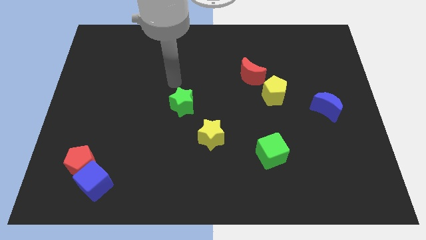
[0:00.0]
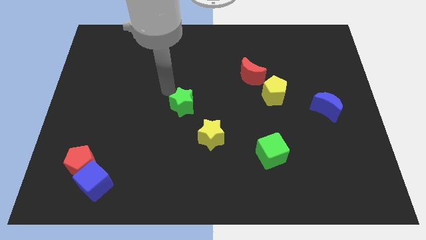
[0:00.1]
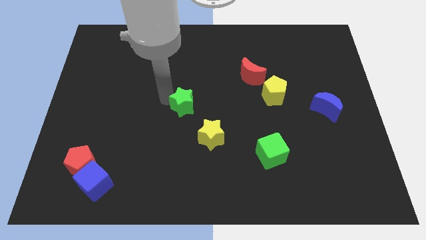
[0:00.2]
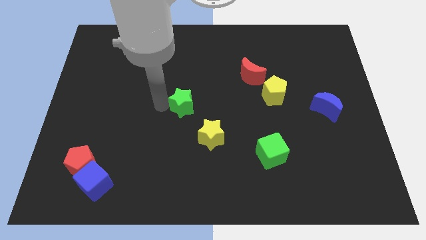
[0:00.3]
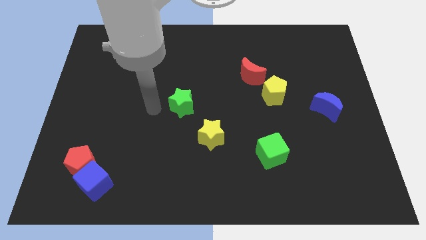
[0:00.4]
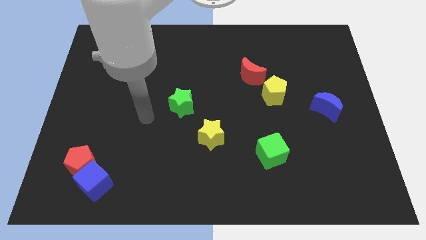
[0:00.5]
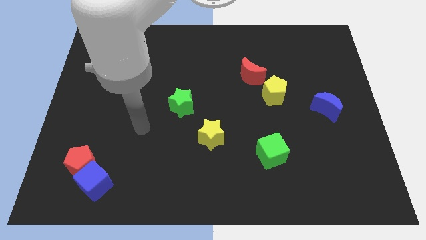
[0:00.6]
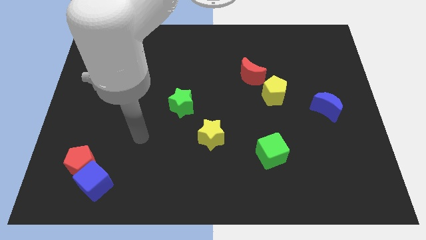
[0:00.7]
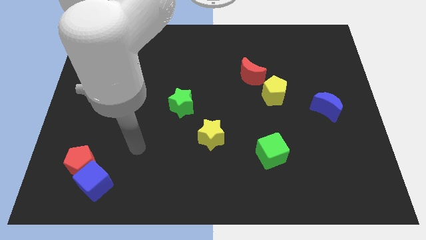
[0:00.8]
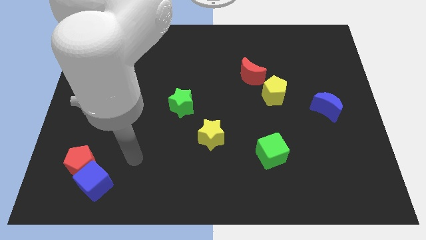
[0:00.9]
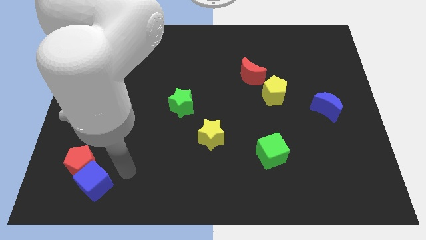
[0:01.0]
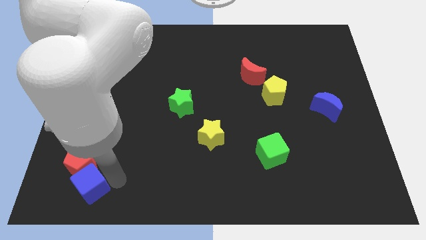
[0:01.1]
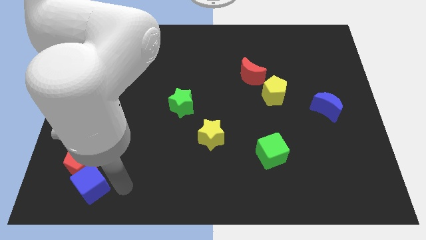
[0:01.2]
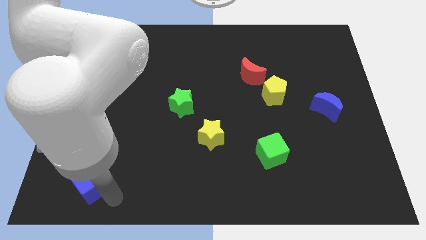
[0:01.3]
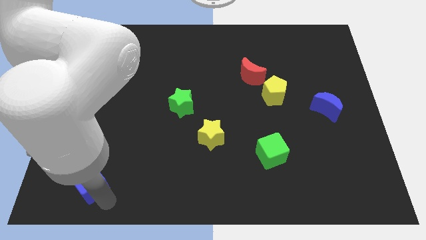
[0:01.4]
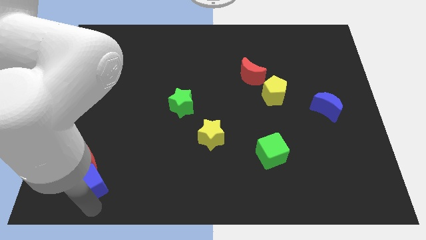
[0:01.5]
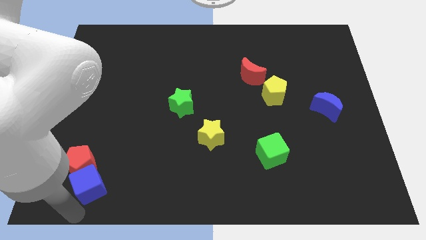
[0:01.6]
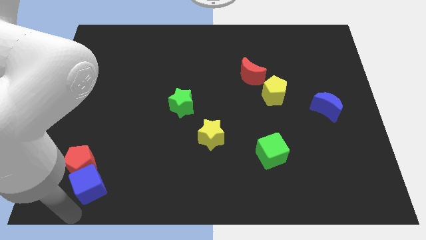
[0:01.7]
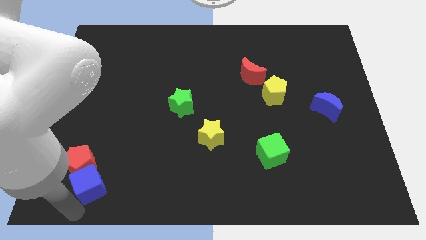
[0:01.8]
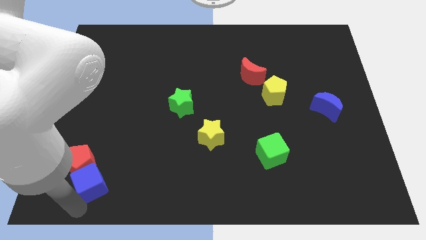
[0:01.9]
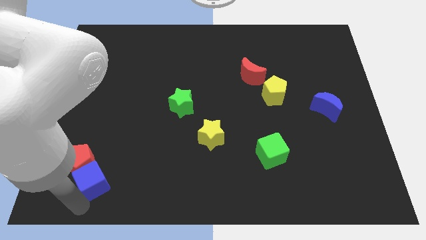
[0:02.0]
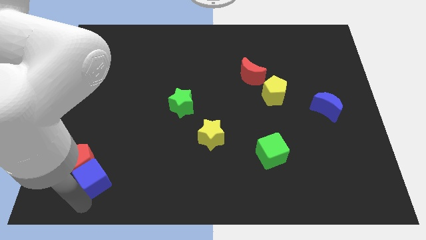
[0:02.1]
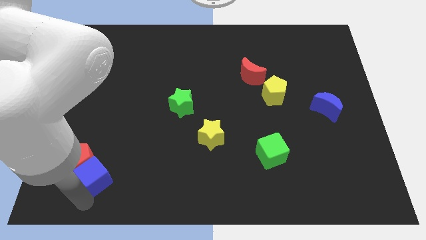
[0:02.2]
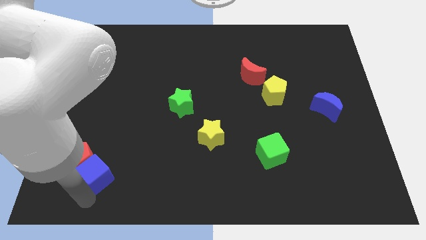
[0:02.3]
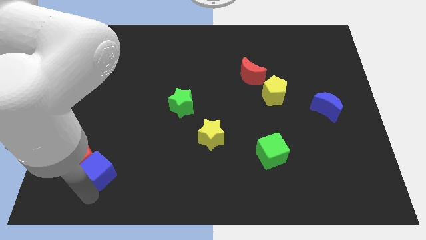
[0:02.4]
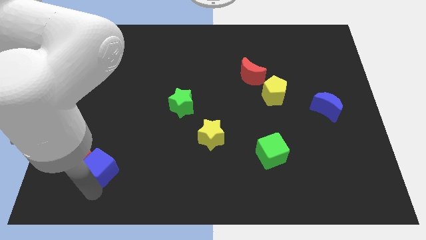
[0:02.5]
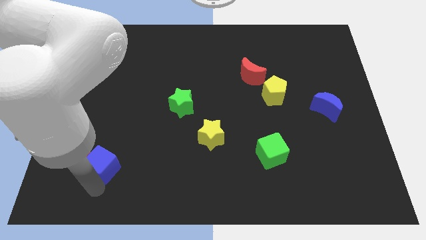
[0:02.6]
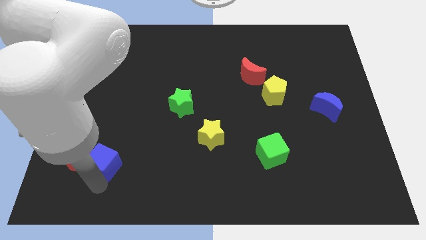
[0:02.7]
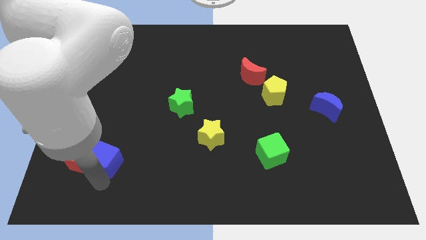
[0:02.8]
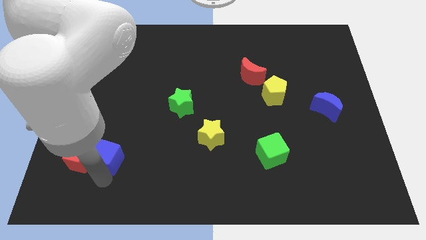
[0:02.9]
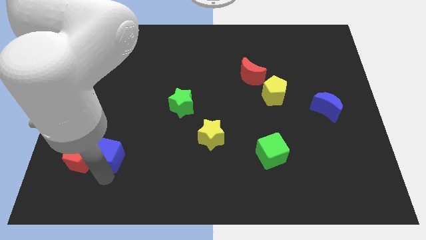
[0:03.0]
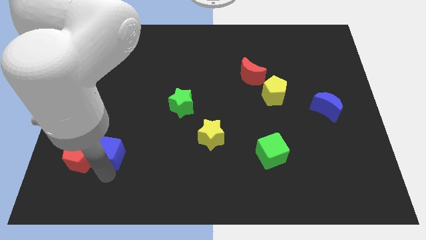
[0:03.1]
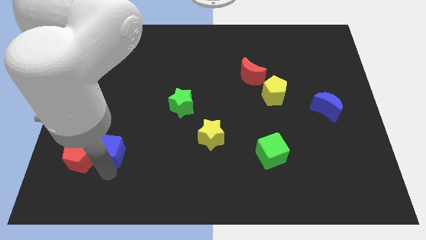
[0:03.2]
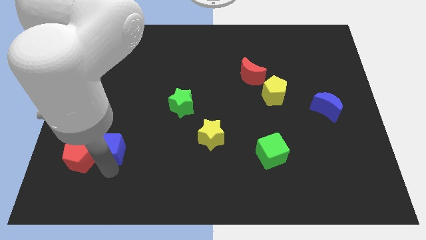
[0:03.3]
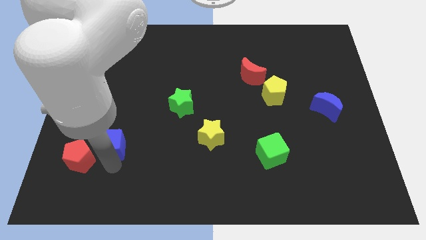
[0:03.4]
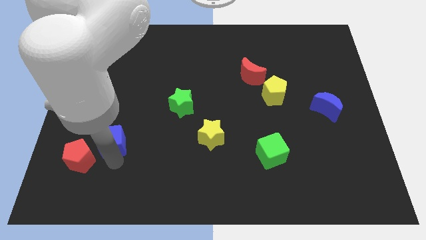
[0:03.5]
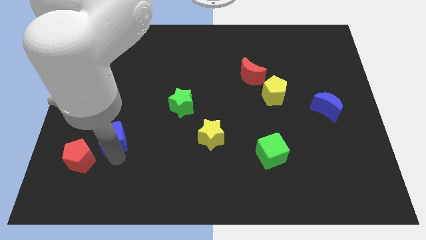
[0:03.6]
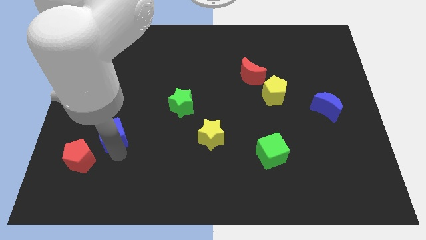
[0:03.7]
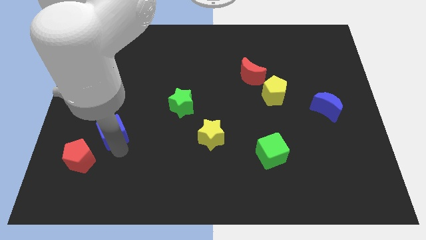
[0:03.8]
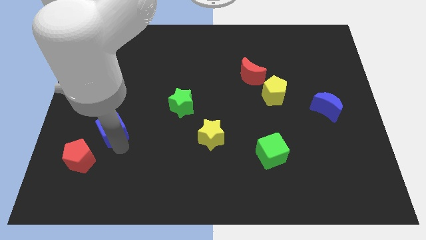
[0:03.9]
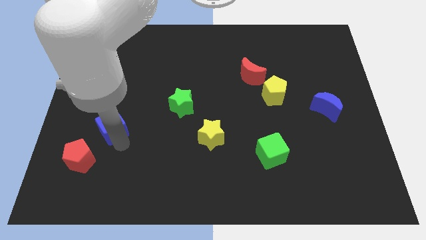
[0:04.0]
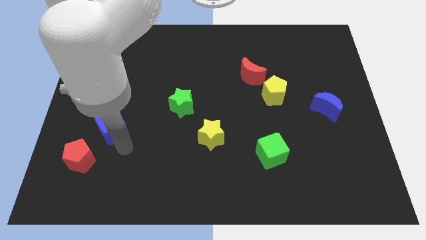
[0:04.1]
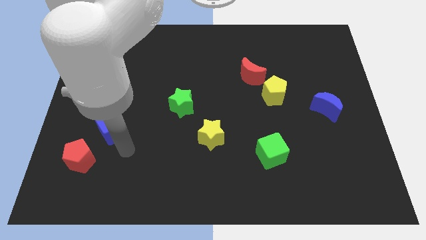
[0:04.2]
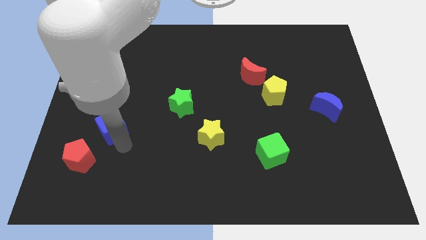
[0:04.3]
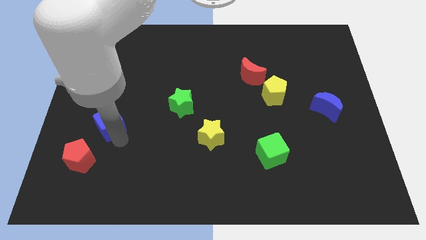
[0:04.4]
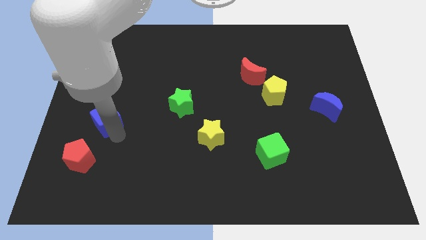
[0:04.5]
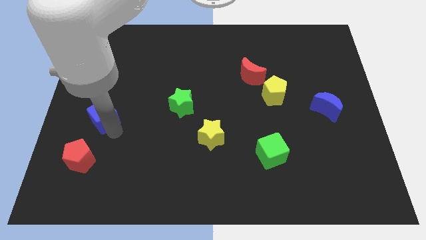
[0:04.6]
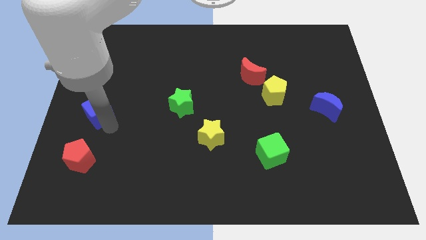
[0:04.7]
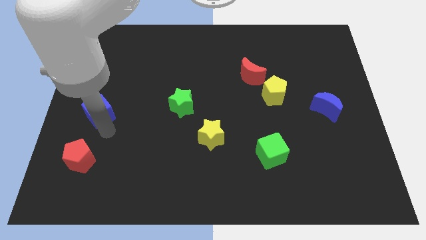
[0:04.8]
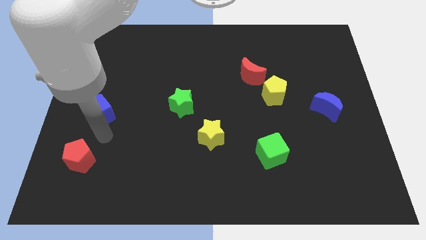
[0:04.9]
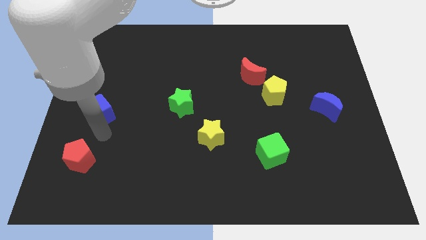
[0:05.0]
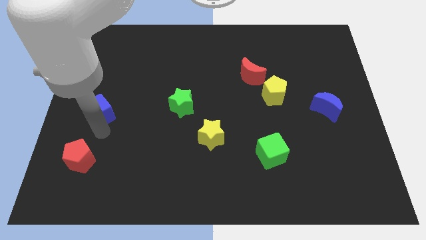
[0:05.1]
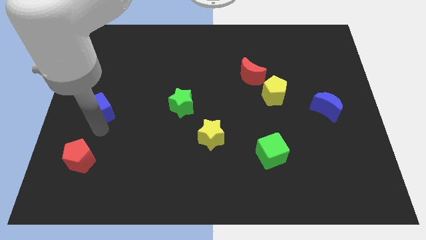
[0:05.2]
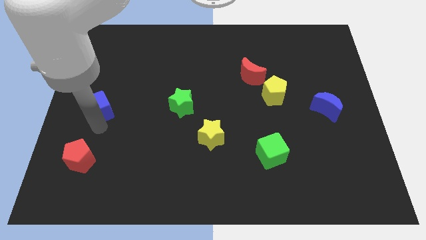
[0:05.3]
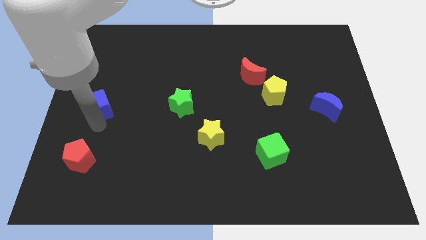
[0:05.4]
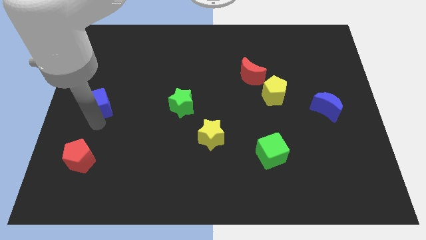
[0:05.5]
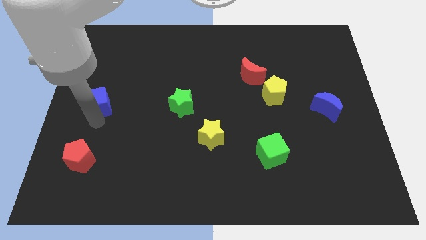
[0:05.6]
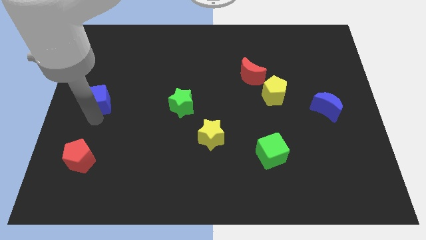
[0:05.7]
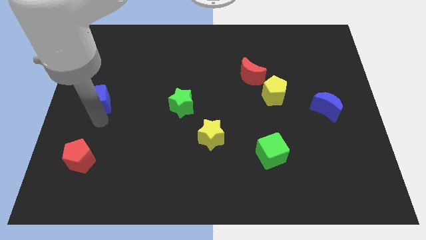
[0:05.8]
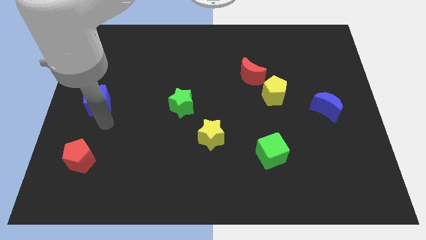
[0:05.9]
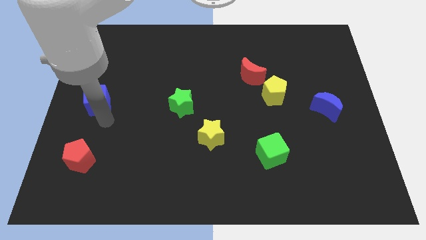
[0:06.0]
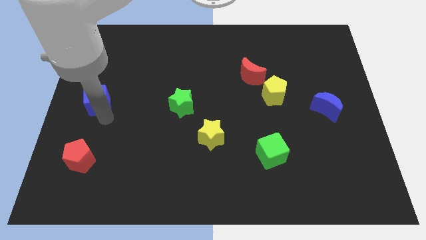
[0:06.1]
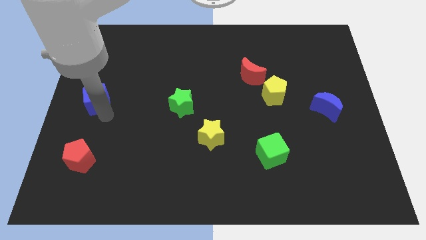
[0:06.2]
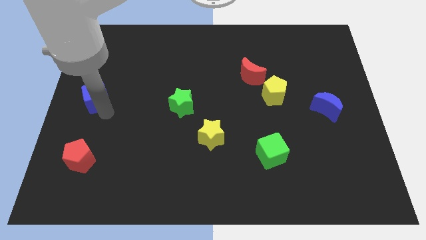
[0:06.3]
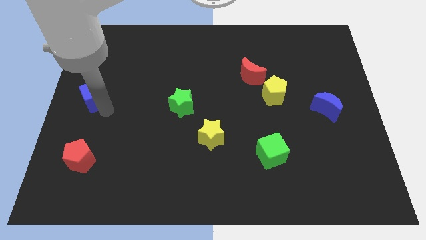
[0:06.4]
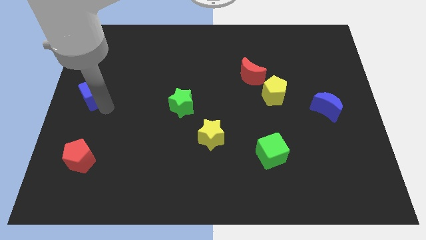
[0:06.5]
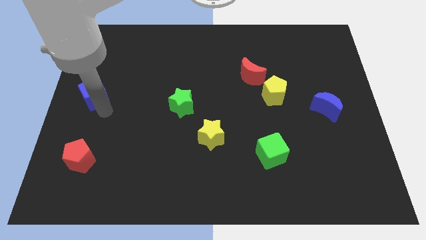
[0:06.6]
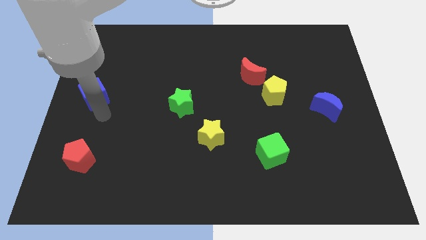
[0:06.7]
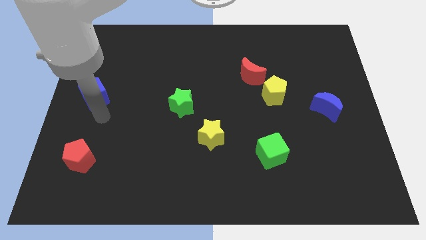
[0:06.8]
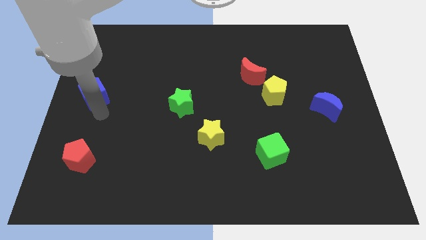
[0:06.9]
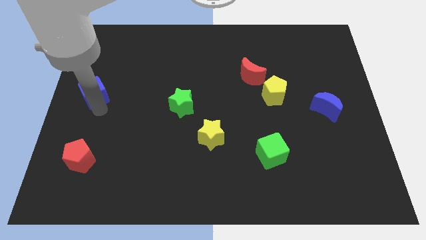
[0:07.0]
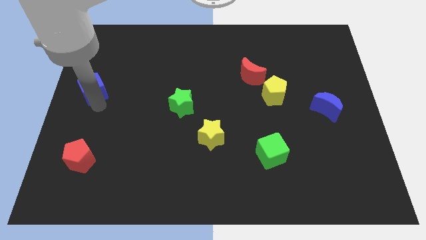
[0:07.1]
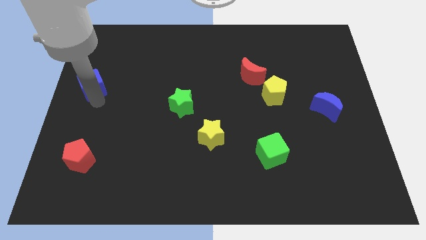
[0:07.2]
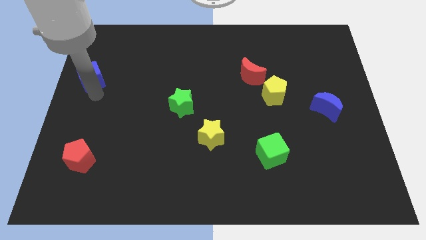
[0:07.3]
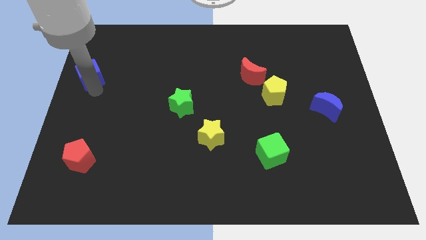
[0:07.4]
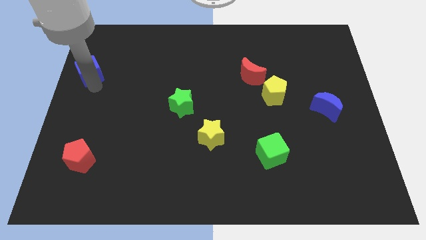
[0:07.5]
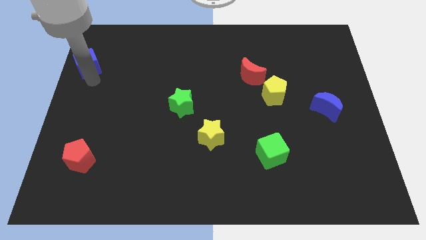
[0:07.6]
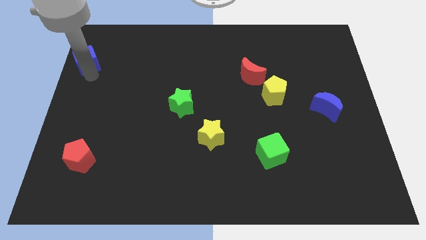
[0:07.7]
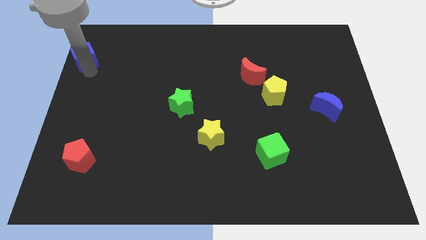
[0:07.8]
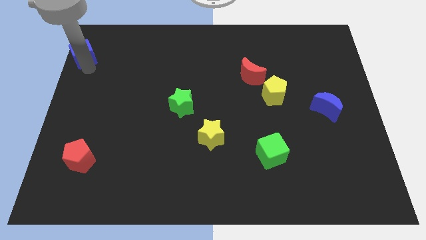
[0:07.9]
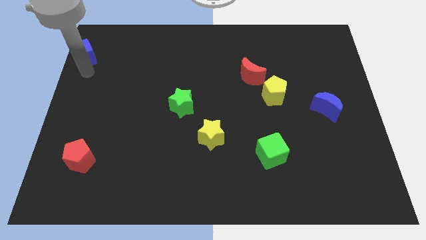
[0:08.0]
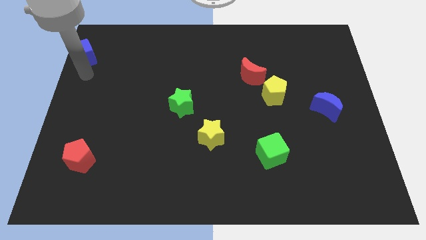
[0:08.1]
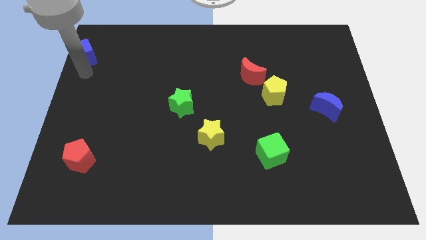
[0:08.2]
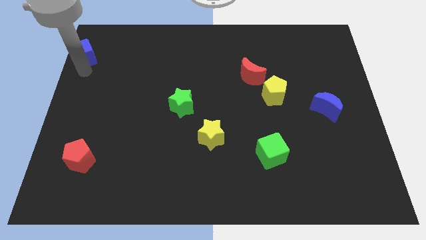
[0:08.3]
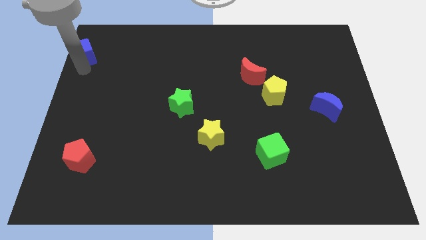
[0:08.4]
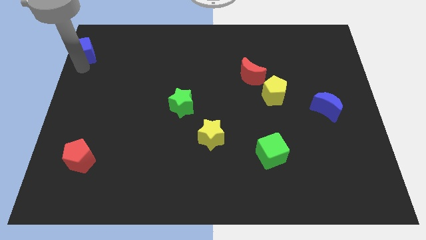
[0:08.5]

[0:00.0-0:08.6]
move the blue cube to the top left
